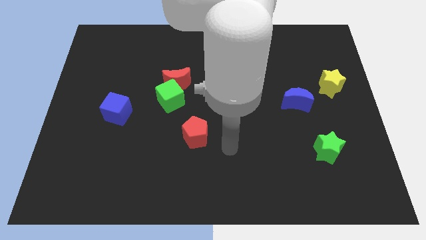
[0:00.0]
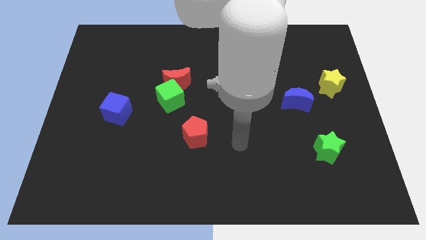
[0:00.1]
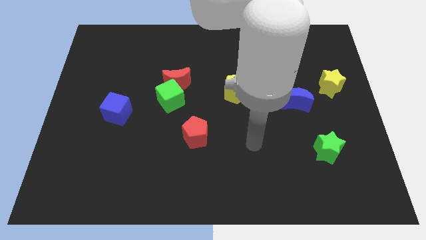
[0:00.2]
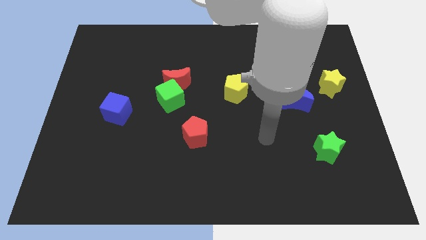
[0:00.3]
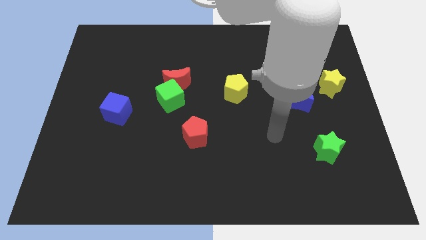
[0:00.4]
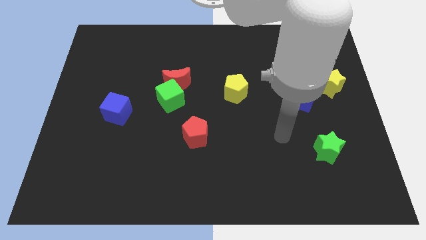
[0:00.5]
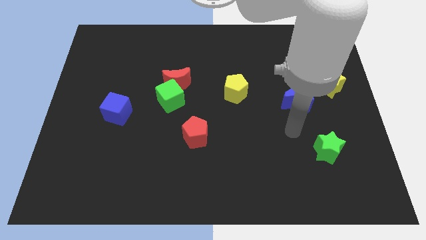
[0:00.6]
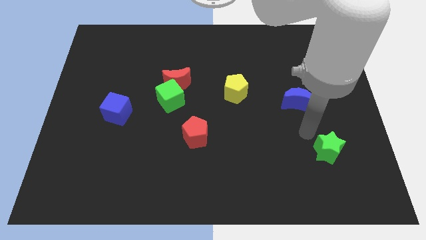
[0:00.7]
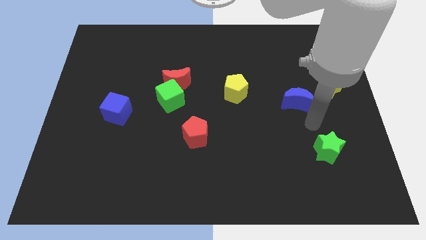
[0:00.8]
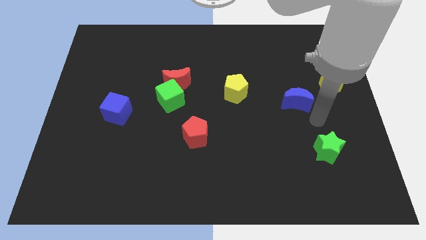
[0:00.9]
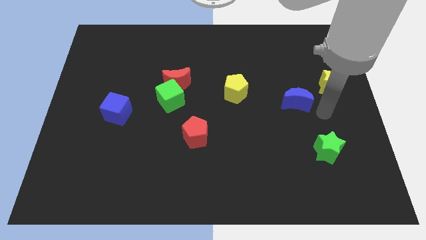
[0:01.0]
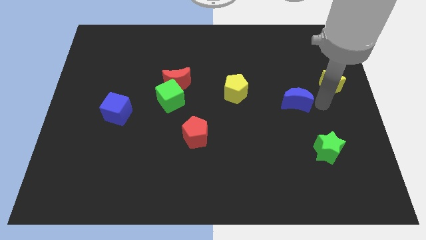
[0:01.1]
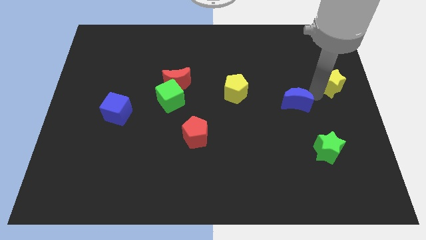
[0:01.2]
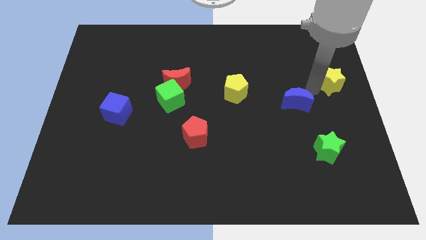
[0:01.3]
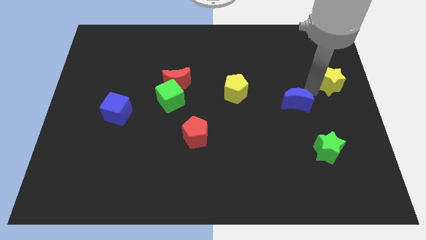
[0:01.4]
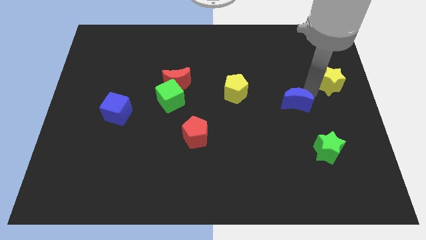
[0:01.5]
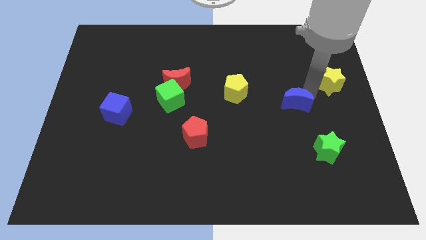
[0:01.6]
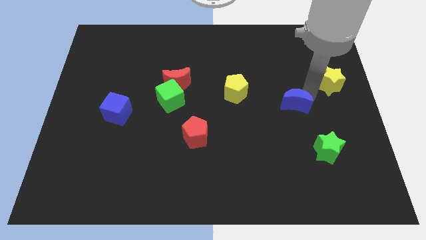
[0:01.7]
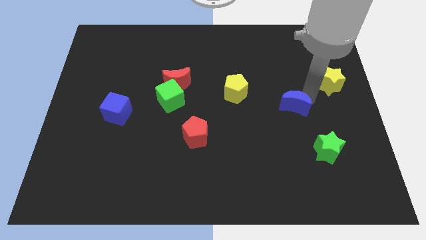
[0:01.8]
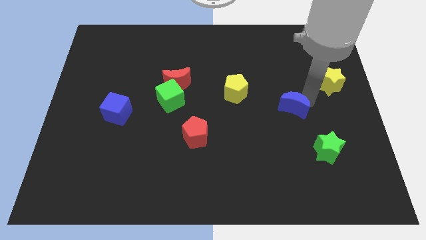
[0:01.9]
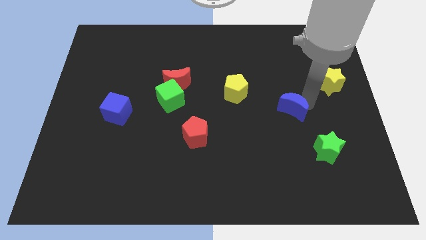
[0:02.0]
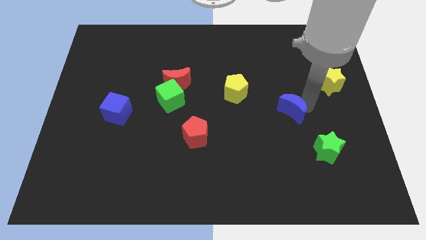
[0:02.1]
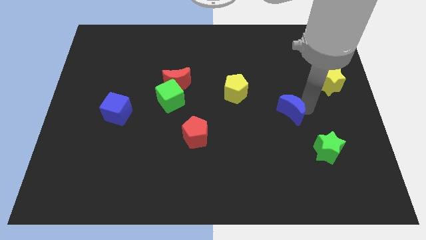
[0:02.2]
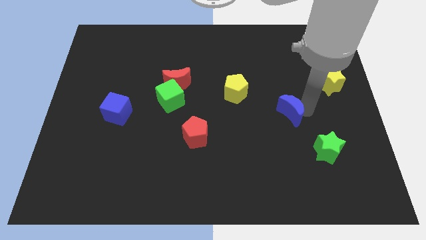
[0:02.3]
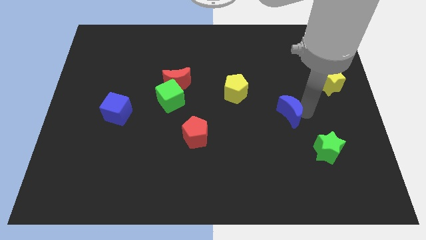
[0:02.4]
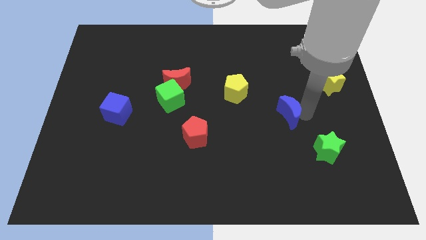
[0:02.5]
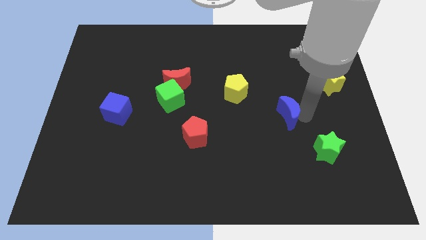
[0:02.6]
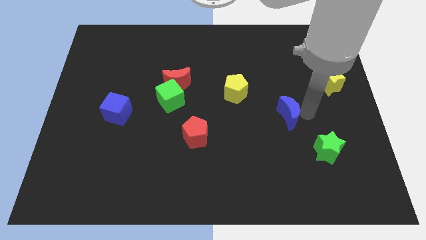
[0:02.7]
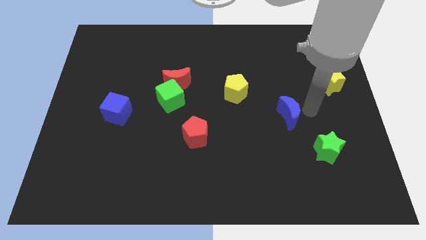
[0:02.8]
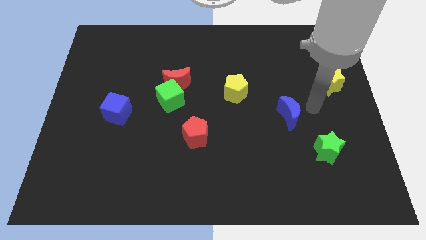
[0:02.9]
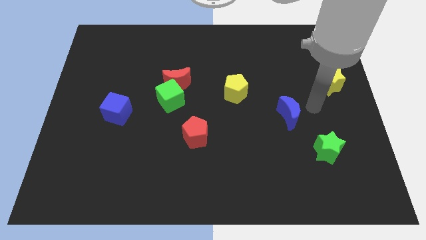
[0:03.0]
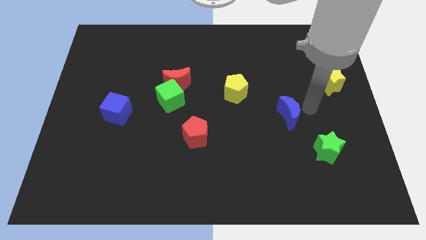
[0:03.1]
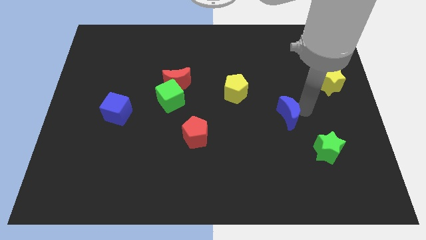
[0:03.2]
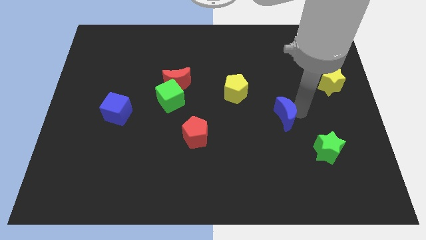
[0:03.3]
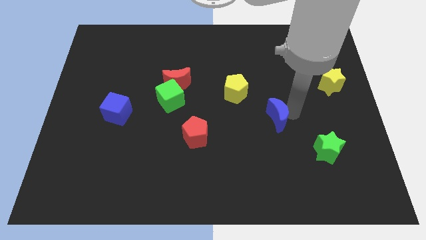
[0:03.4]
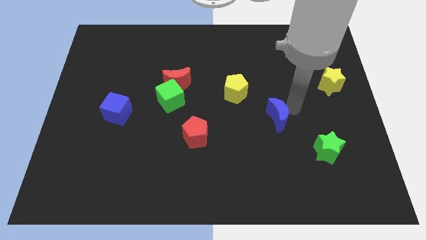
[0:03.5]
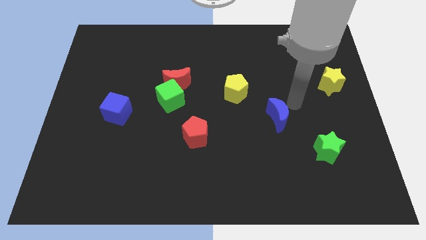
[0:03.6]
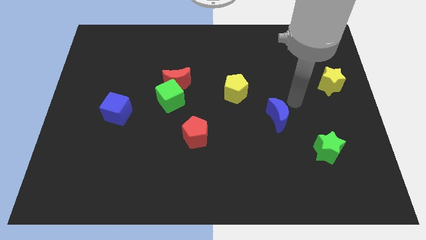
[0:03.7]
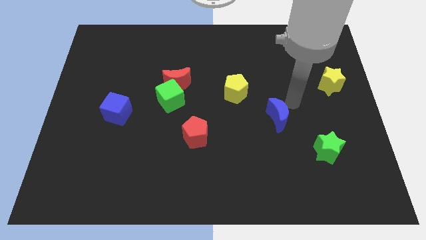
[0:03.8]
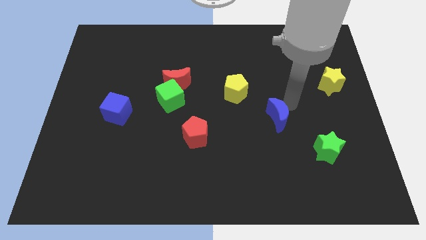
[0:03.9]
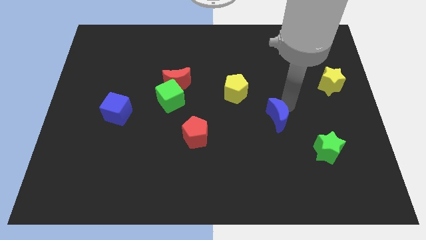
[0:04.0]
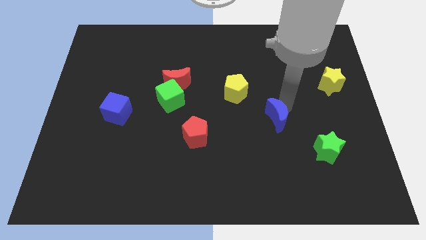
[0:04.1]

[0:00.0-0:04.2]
slightly move the blue moon diagonally down and to the left

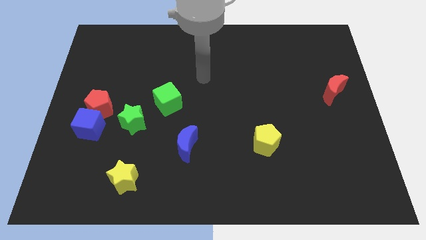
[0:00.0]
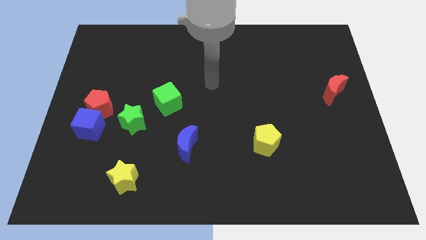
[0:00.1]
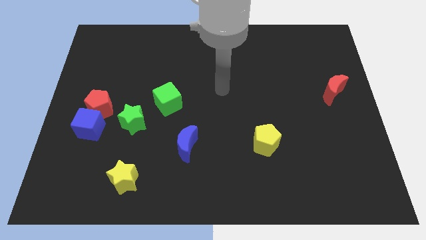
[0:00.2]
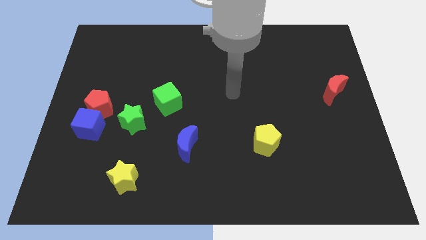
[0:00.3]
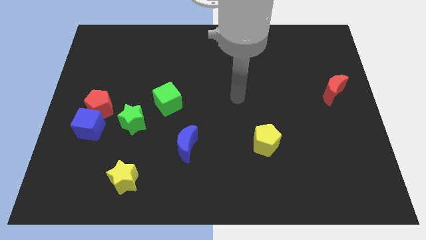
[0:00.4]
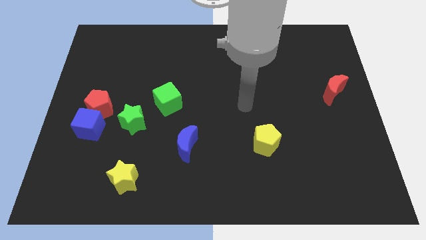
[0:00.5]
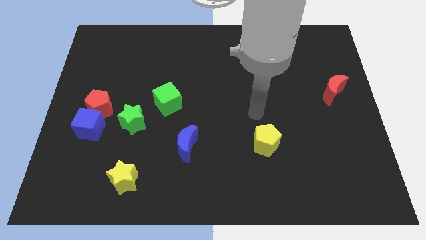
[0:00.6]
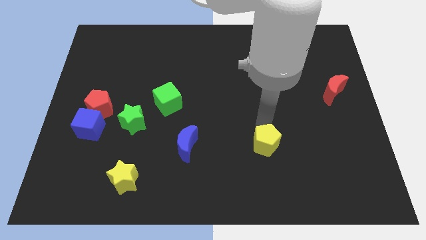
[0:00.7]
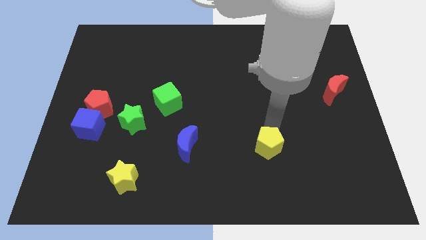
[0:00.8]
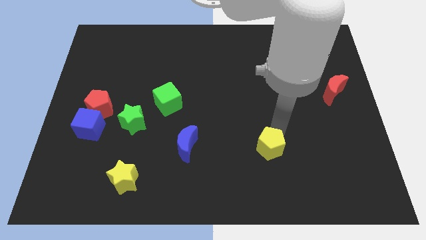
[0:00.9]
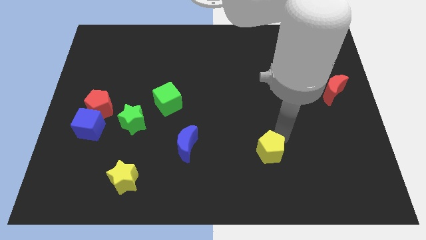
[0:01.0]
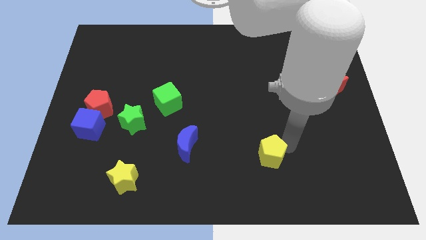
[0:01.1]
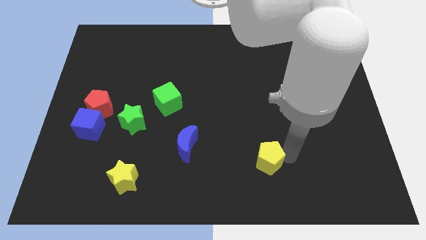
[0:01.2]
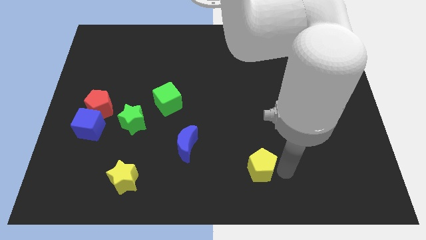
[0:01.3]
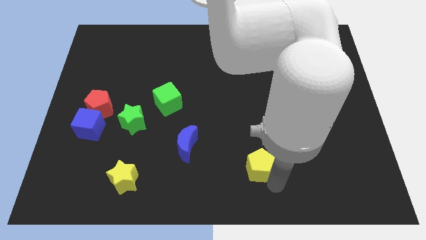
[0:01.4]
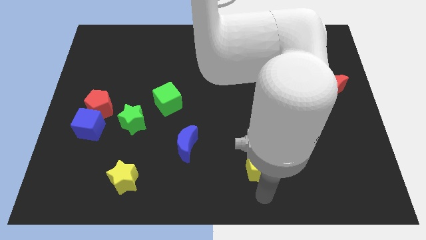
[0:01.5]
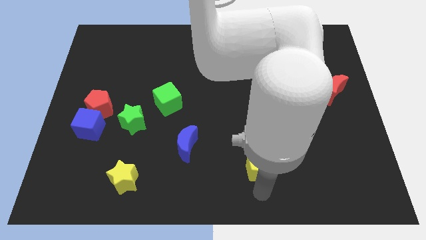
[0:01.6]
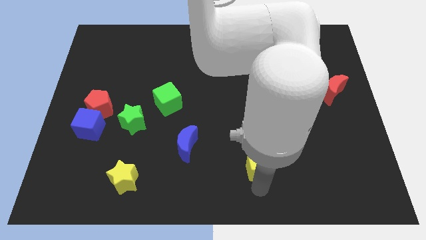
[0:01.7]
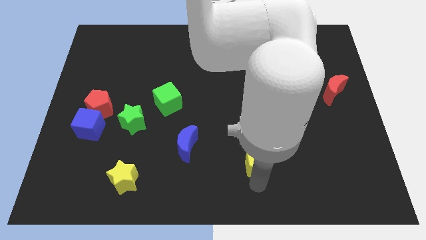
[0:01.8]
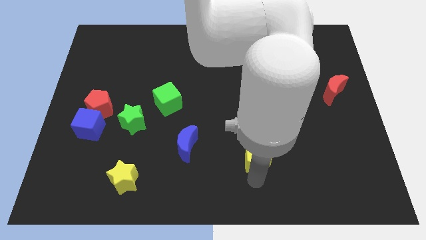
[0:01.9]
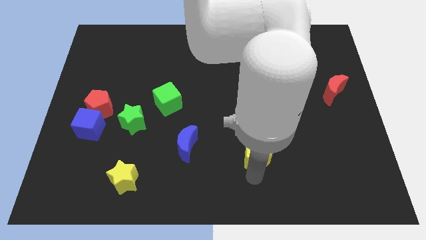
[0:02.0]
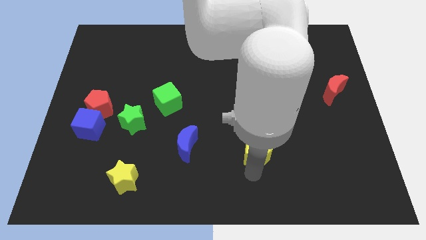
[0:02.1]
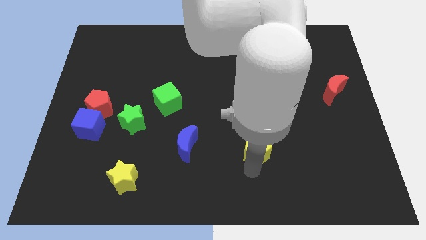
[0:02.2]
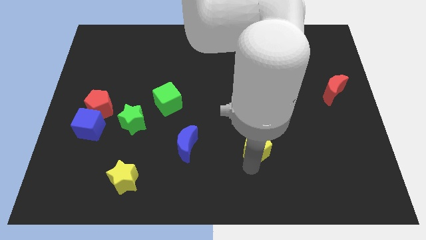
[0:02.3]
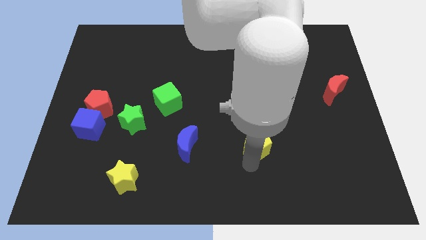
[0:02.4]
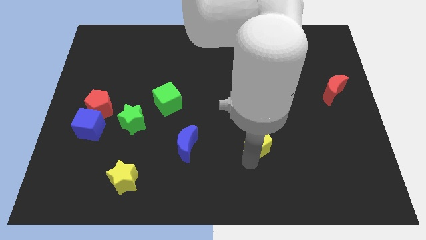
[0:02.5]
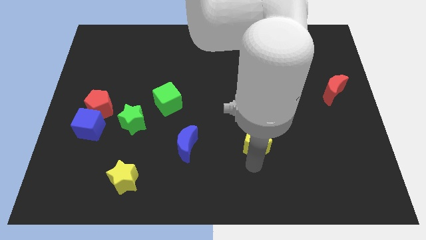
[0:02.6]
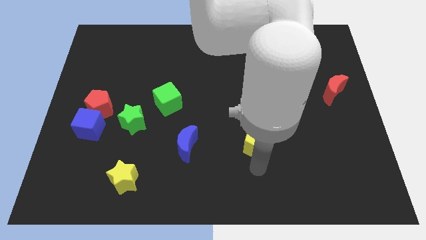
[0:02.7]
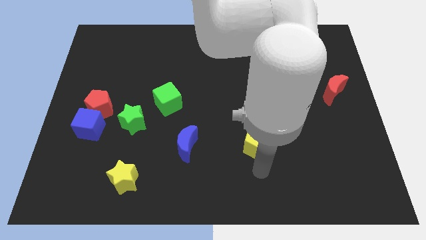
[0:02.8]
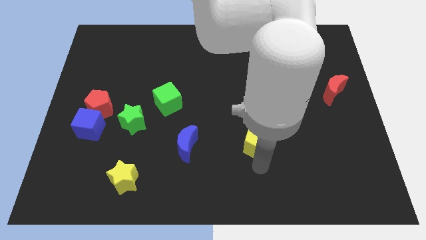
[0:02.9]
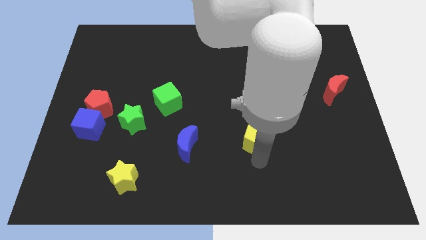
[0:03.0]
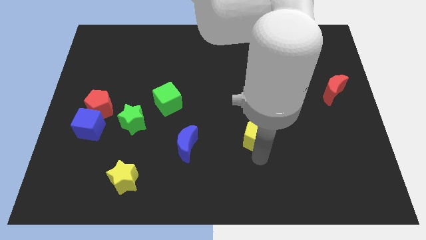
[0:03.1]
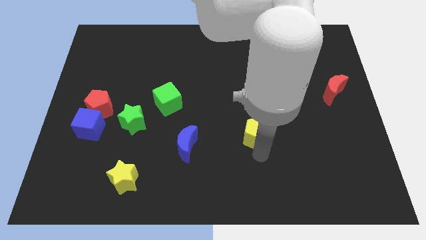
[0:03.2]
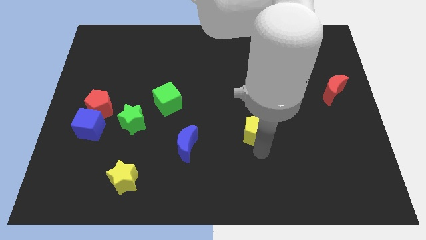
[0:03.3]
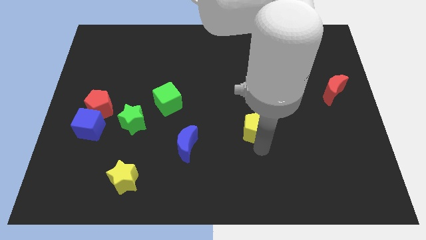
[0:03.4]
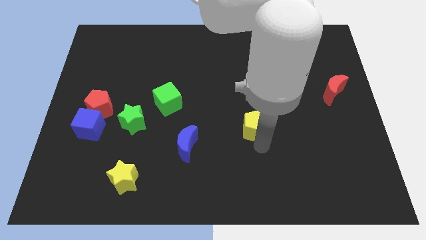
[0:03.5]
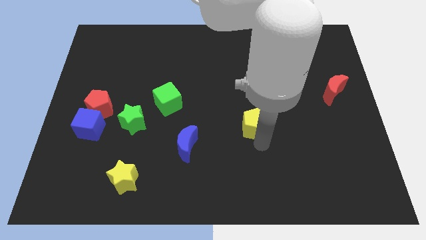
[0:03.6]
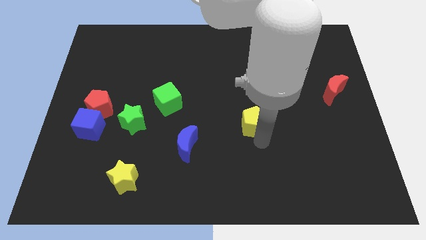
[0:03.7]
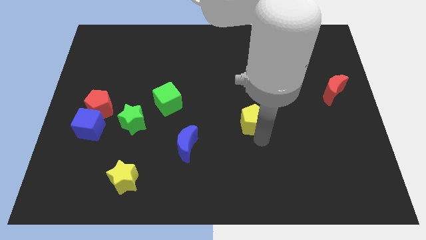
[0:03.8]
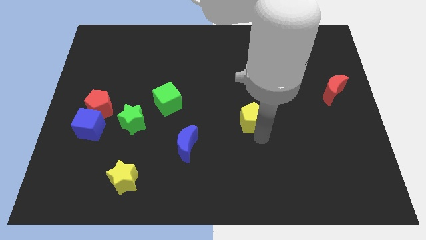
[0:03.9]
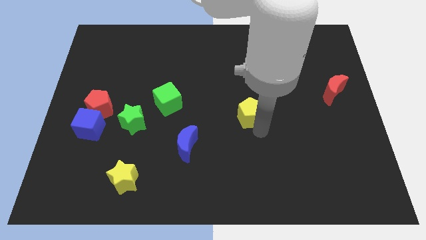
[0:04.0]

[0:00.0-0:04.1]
push the yellow pentagon somewhat upwards and left
